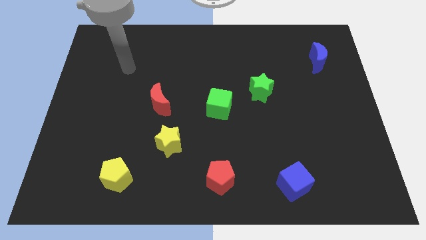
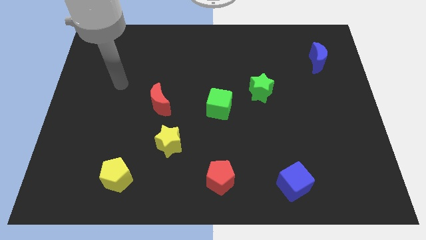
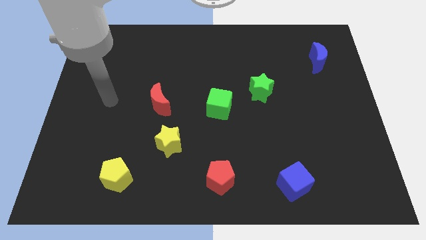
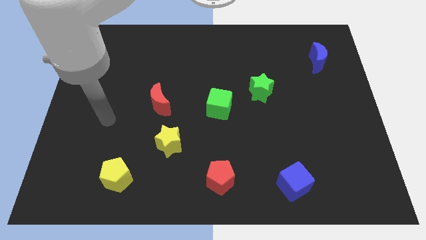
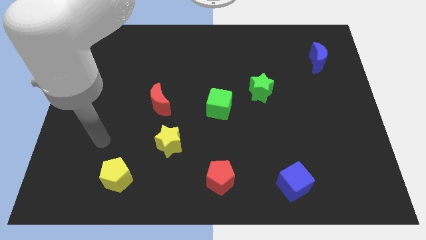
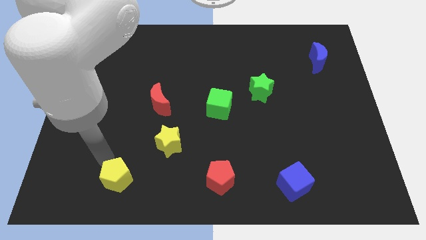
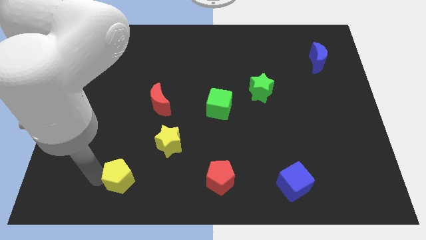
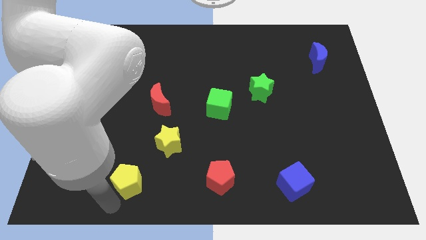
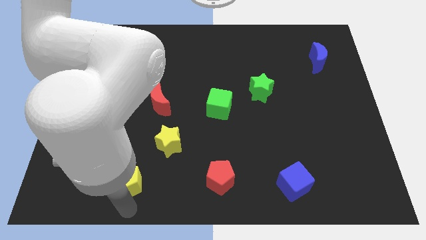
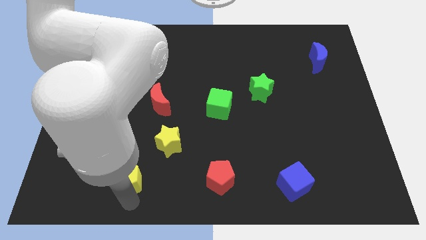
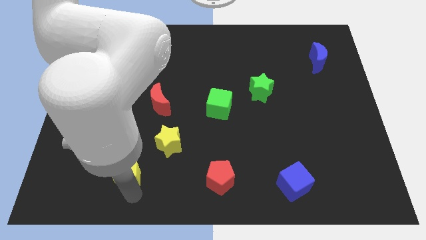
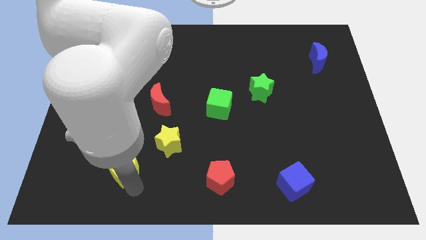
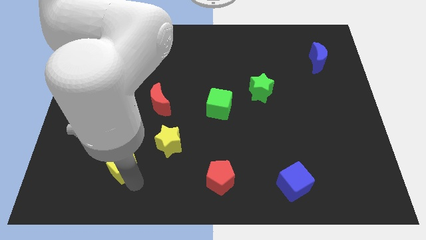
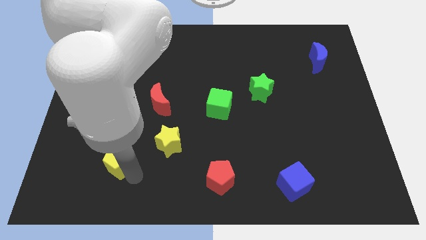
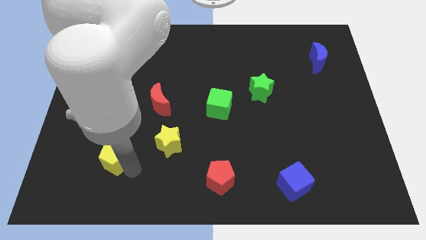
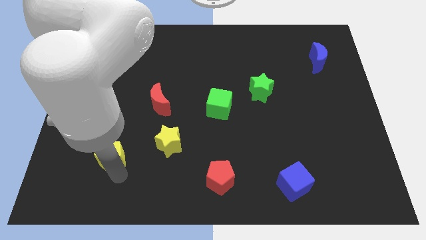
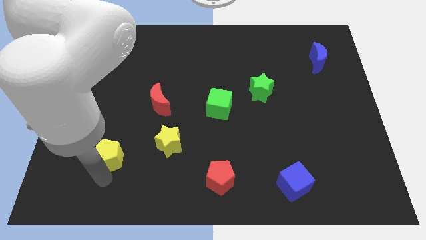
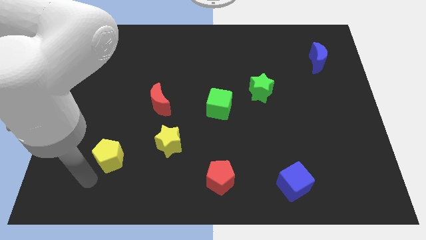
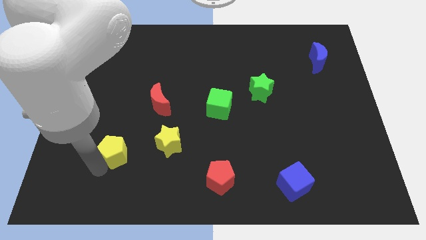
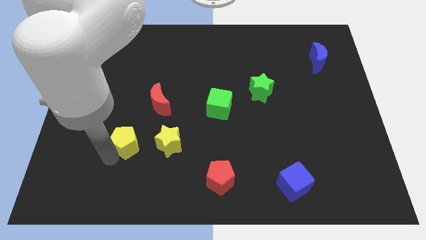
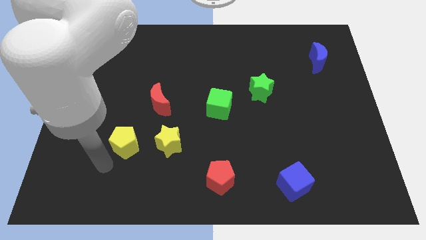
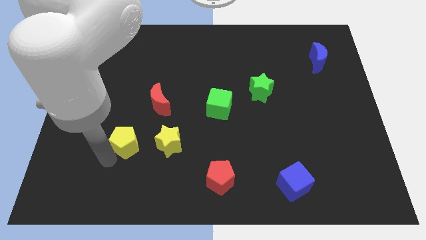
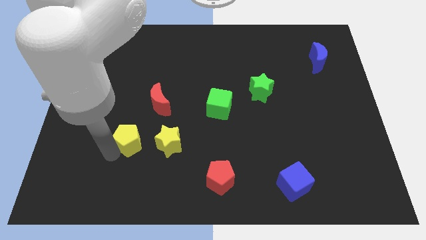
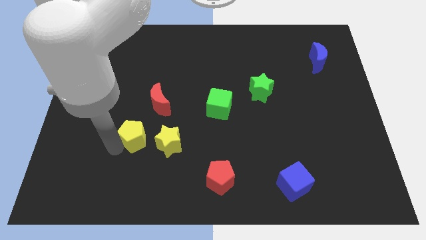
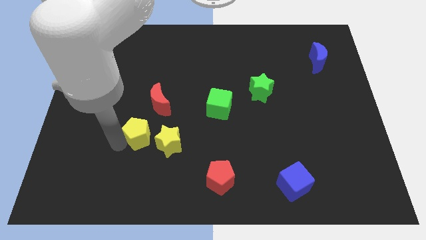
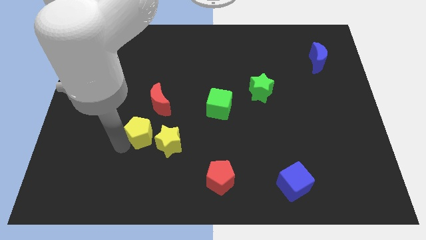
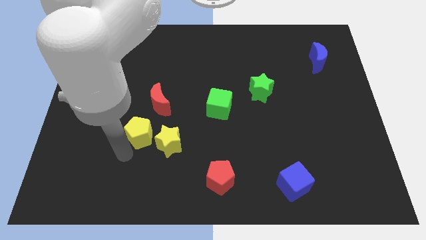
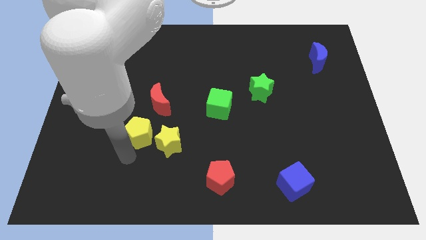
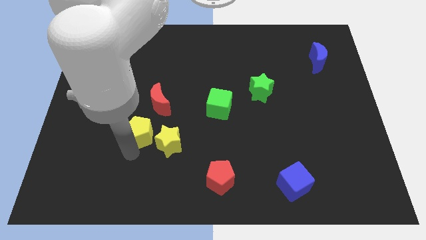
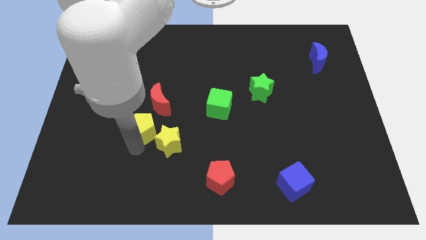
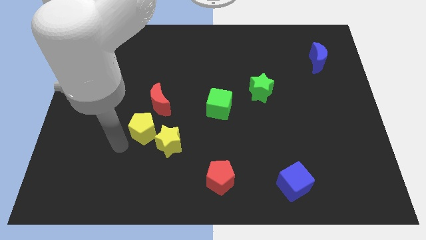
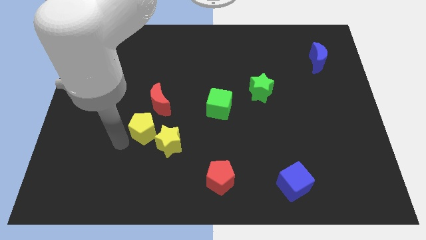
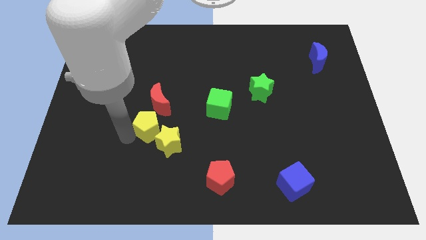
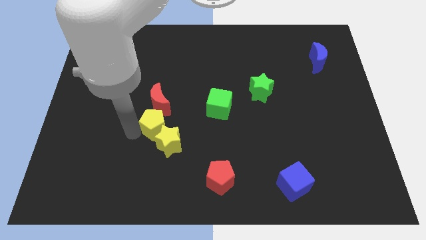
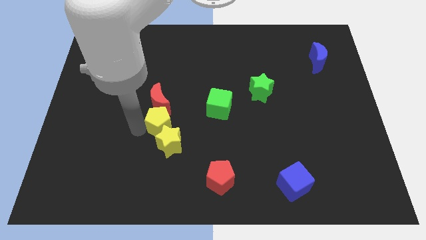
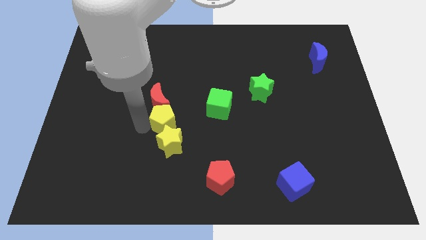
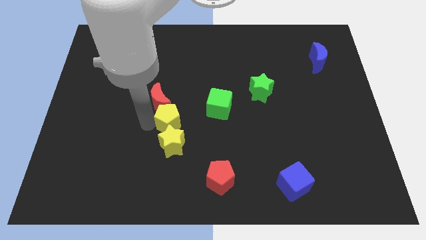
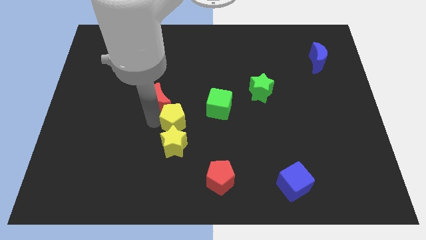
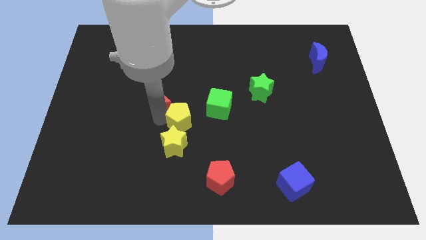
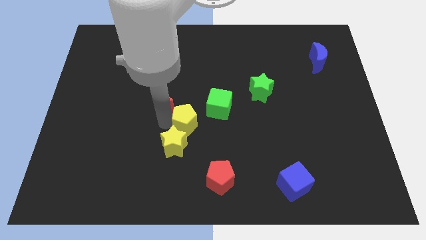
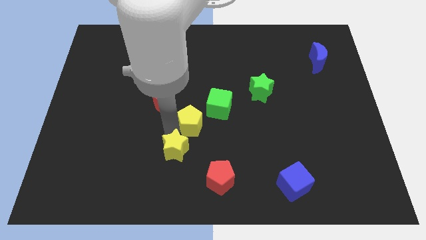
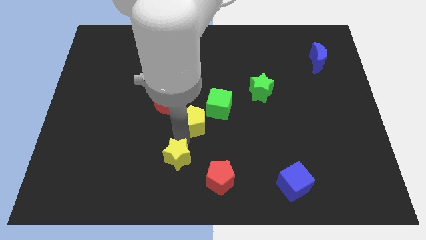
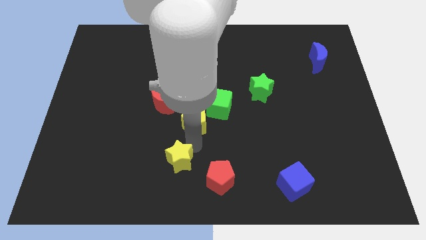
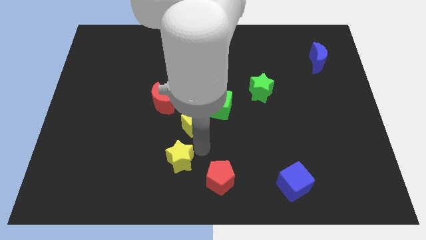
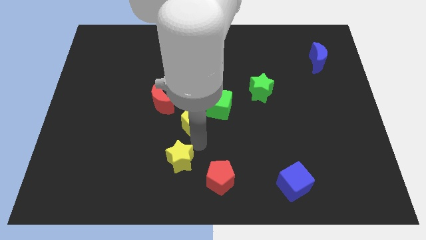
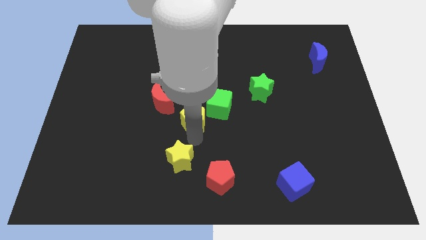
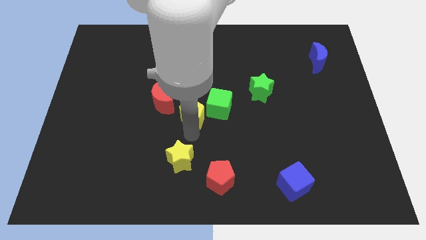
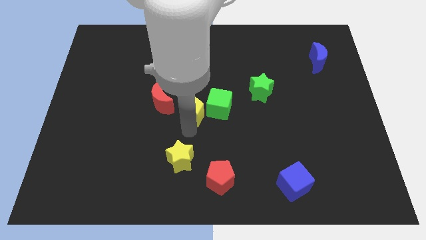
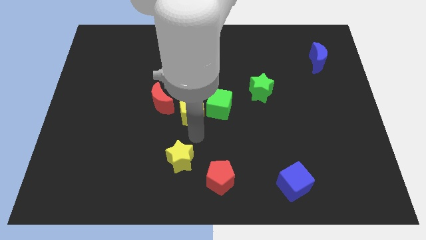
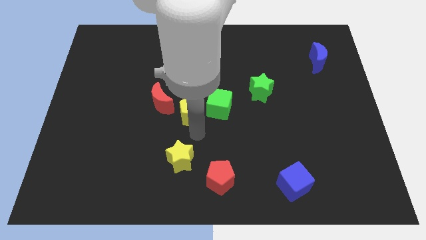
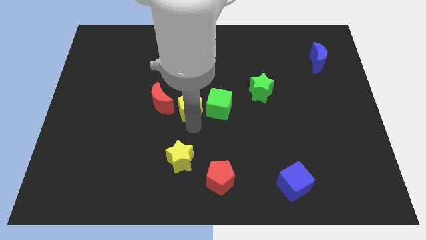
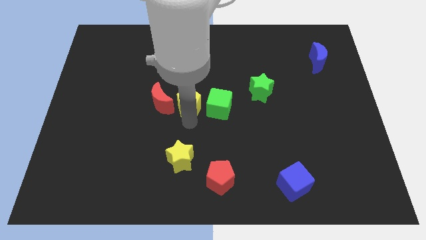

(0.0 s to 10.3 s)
push the yellow pentagon to the top left side of the green cube

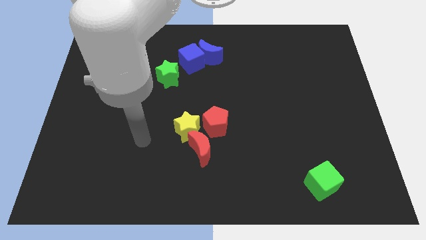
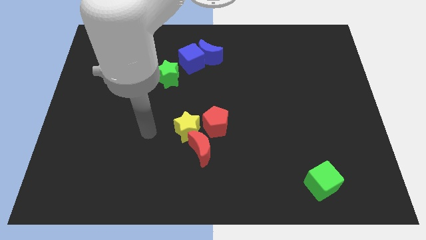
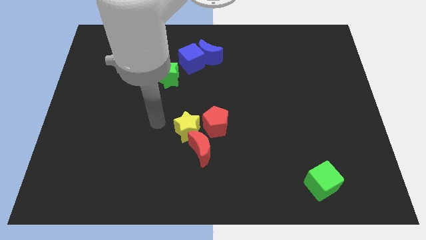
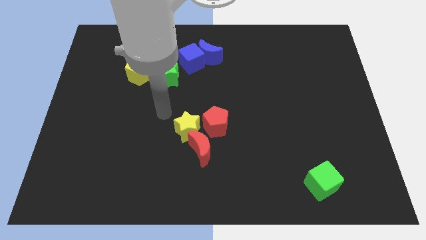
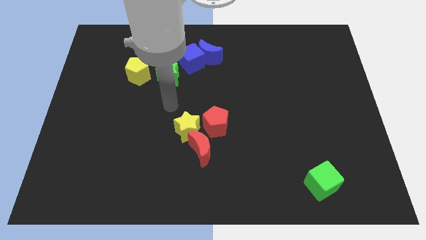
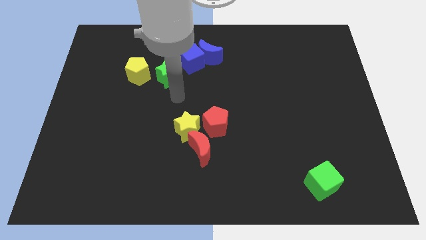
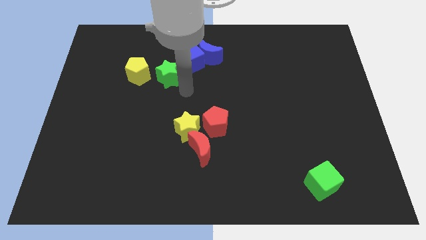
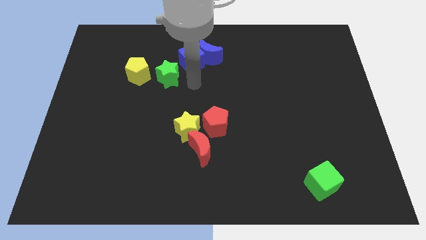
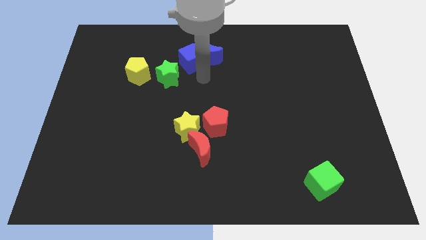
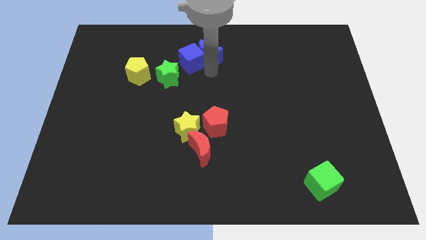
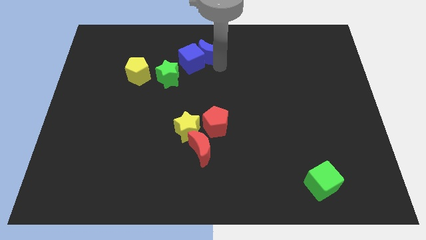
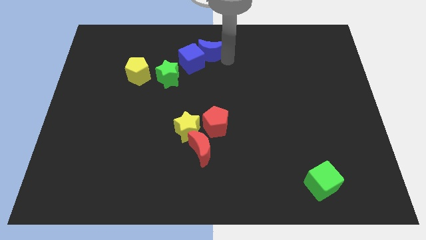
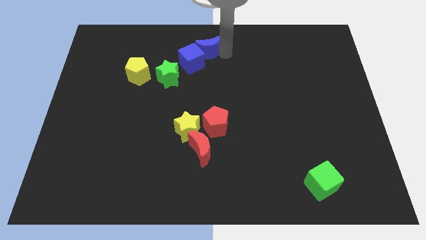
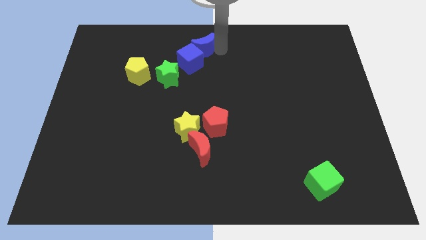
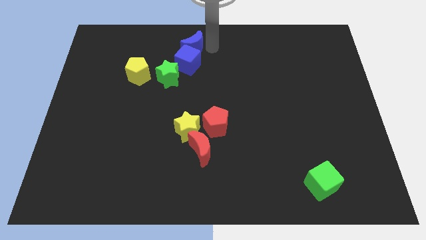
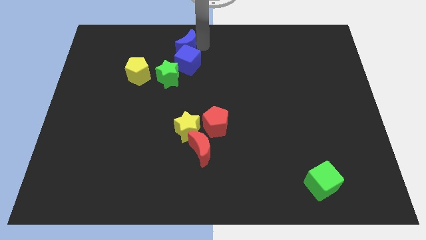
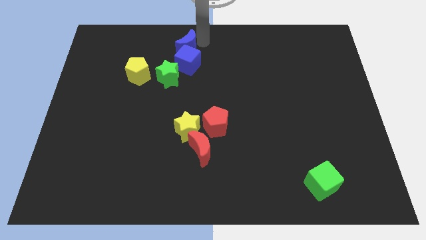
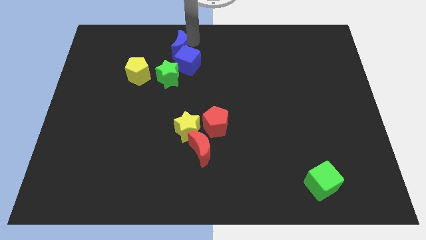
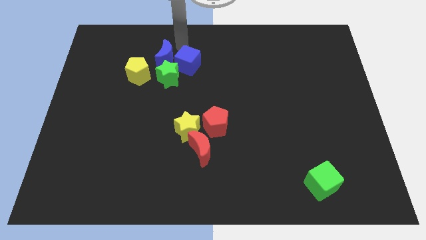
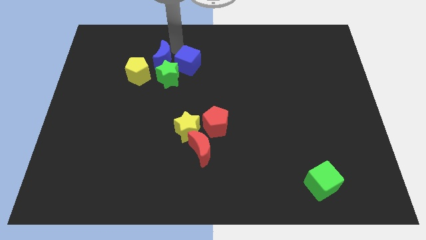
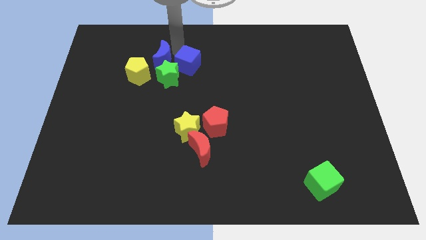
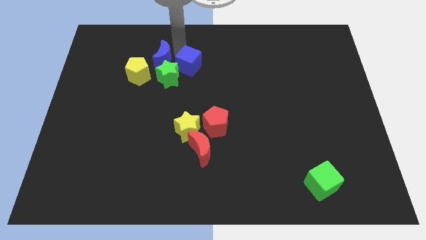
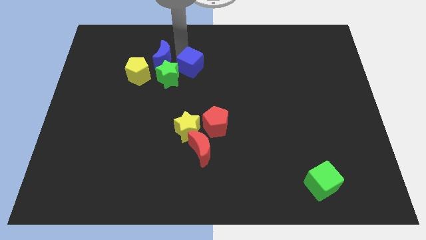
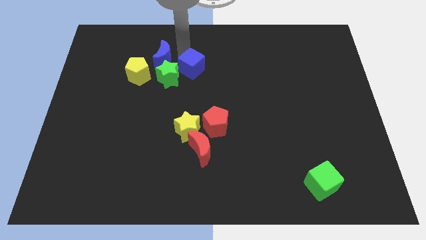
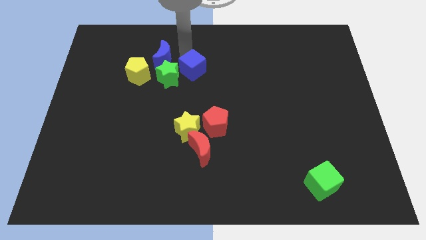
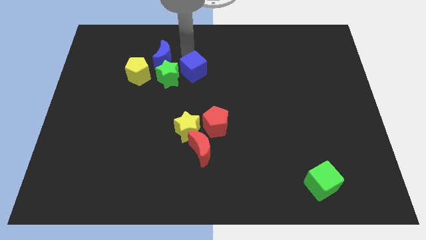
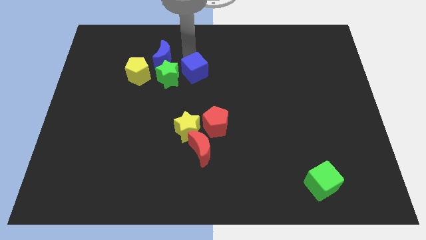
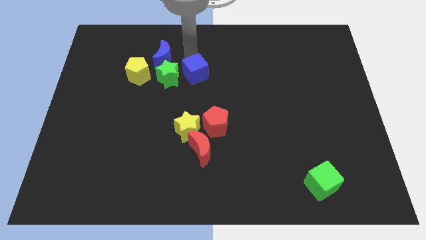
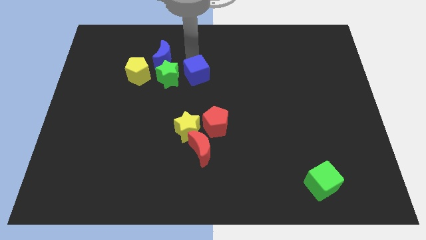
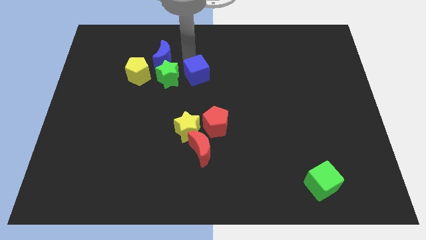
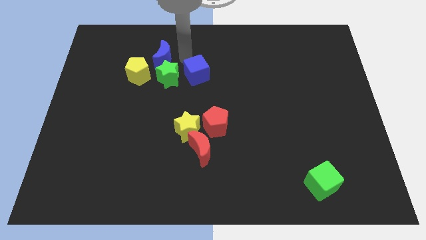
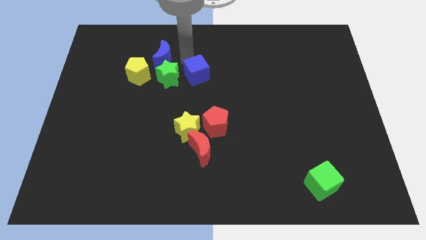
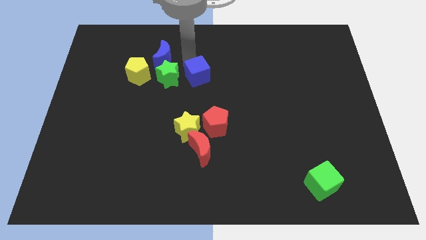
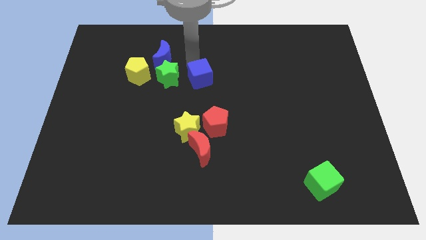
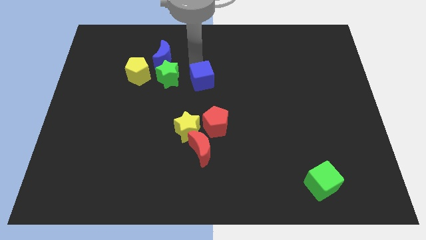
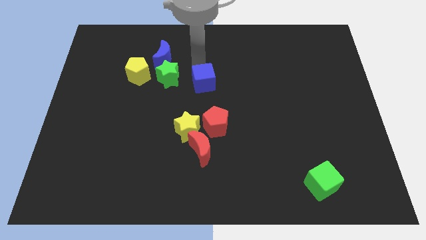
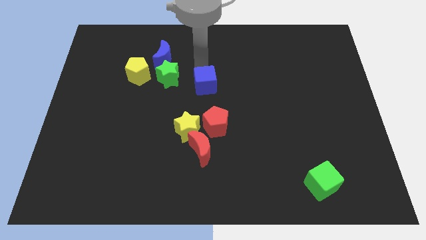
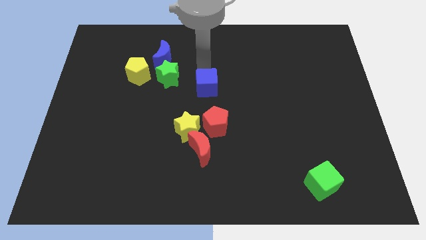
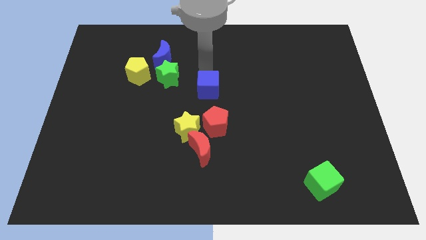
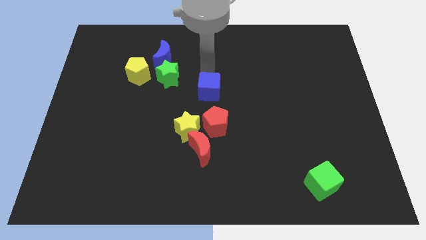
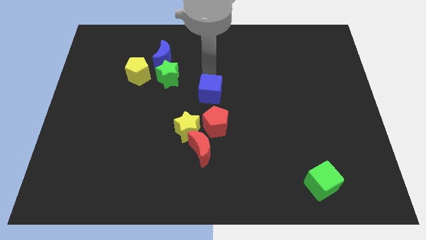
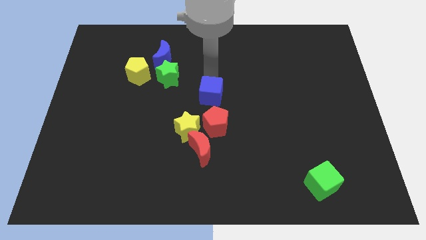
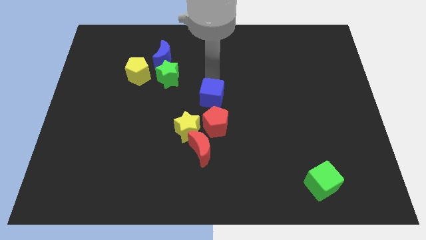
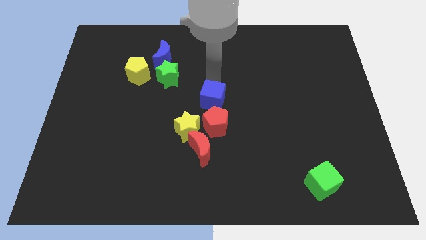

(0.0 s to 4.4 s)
put the blue cube to the top left side of the red pentagon
